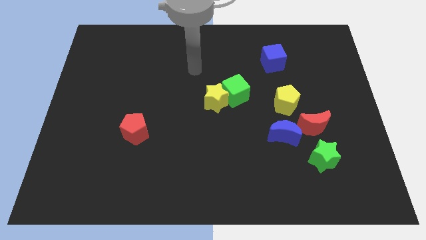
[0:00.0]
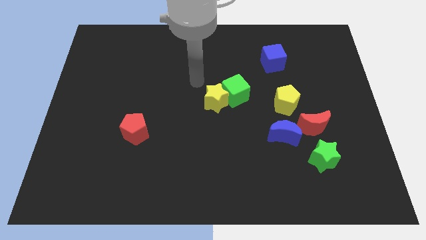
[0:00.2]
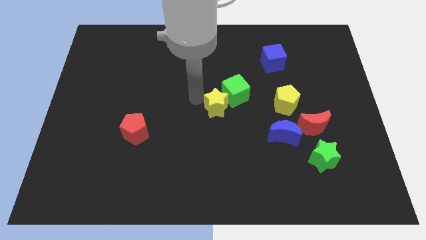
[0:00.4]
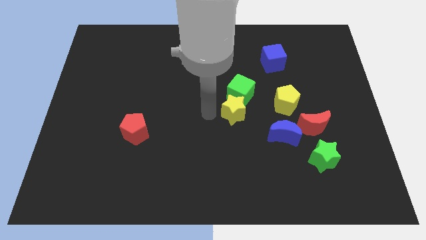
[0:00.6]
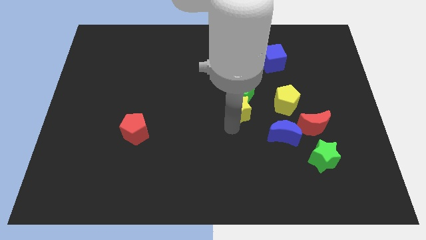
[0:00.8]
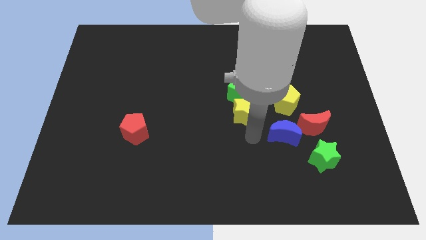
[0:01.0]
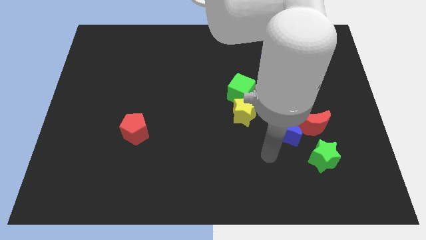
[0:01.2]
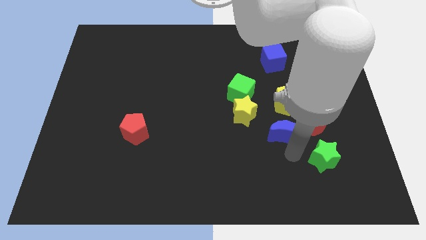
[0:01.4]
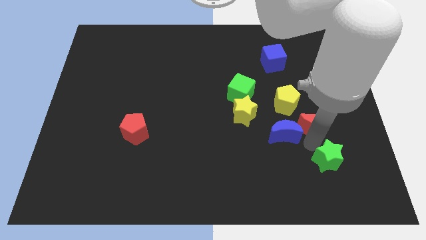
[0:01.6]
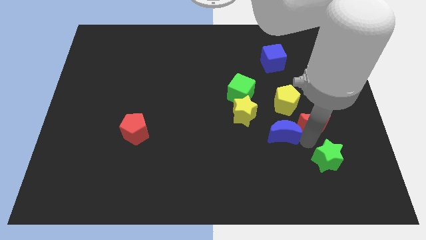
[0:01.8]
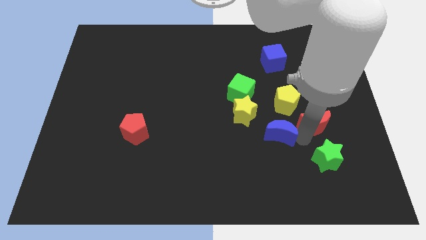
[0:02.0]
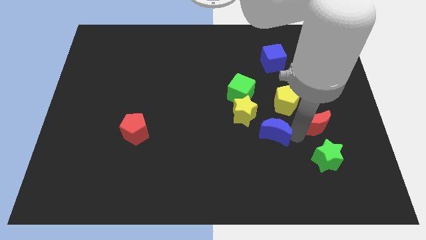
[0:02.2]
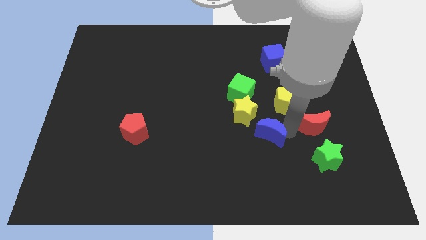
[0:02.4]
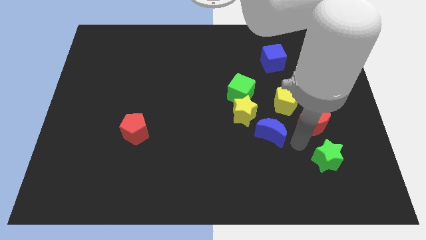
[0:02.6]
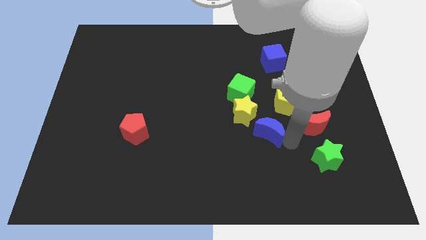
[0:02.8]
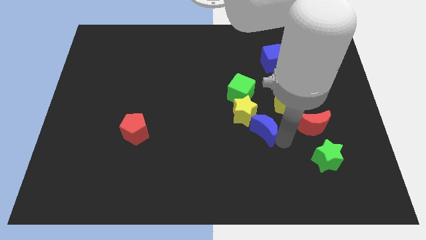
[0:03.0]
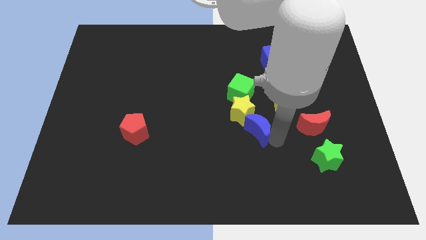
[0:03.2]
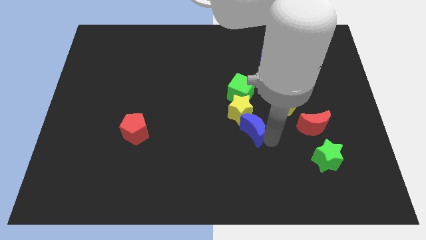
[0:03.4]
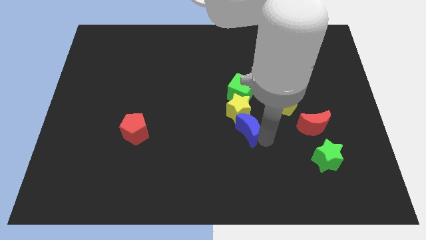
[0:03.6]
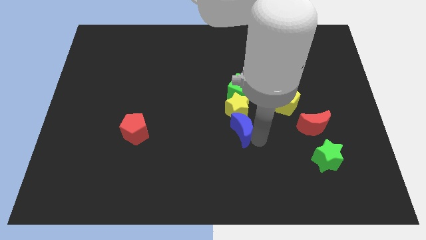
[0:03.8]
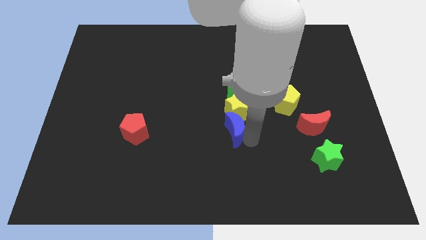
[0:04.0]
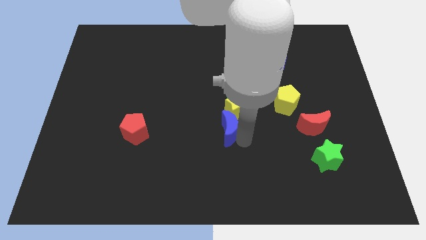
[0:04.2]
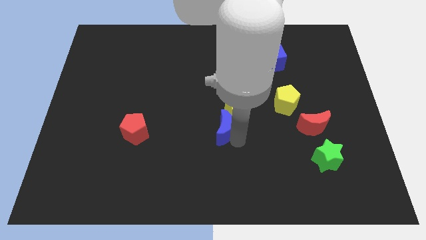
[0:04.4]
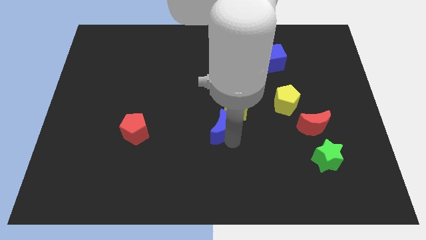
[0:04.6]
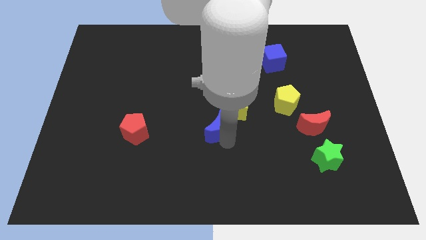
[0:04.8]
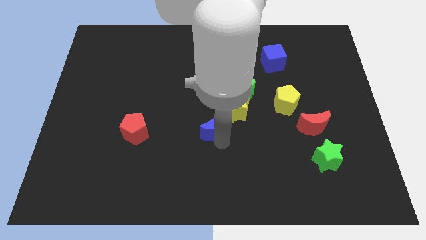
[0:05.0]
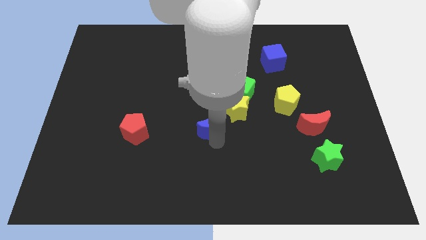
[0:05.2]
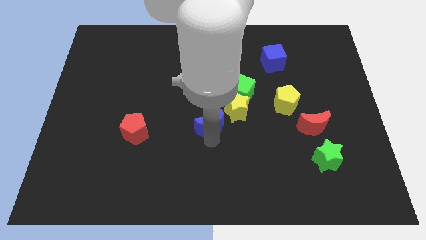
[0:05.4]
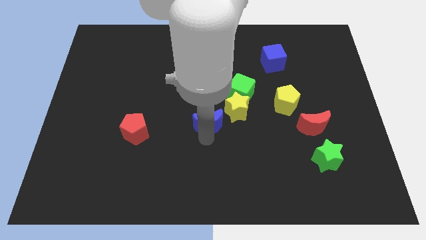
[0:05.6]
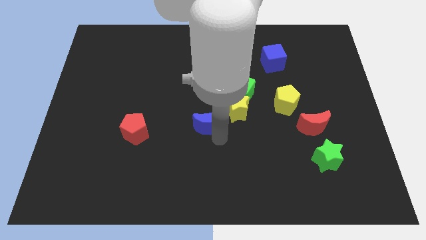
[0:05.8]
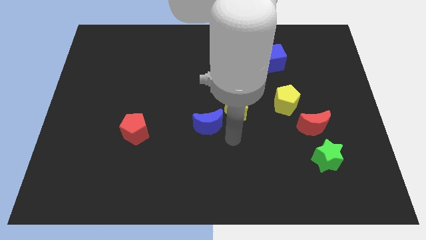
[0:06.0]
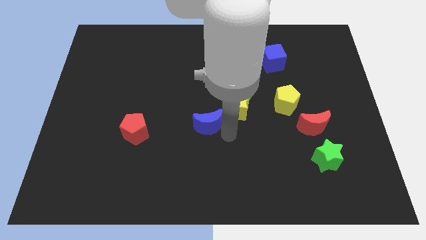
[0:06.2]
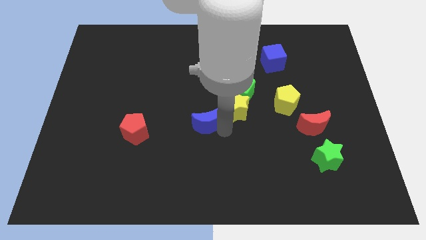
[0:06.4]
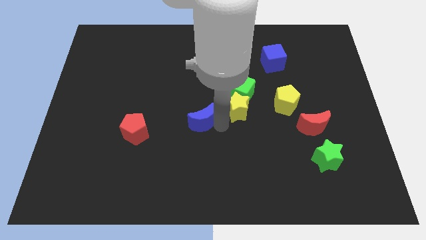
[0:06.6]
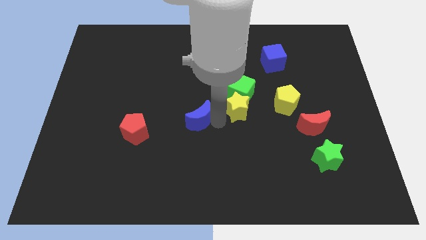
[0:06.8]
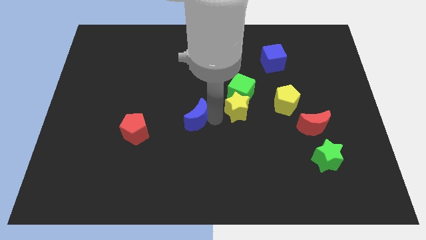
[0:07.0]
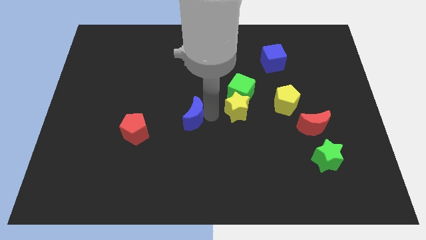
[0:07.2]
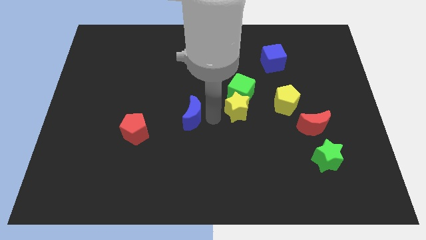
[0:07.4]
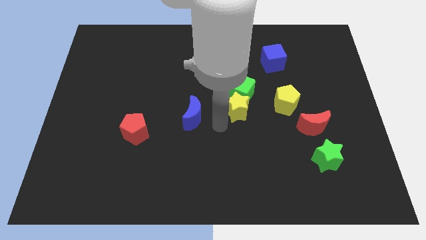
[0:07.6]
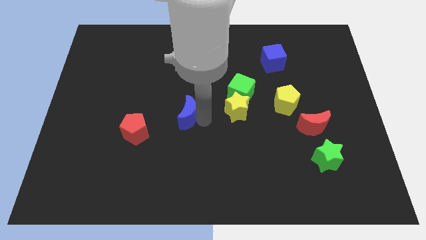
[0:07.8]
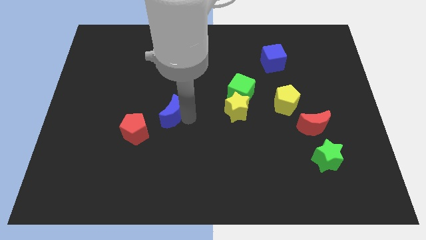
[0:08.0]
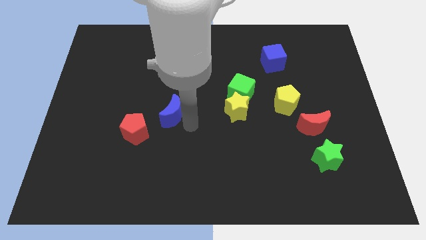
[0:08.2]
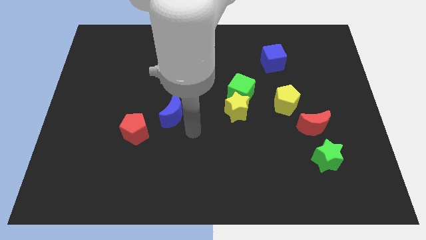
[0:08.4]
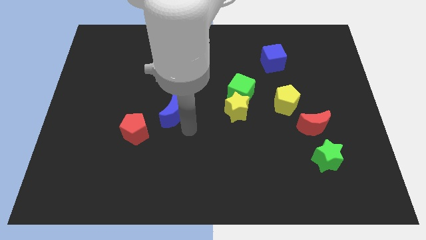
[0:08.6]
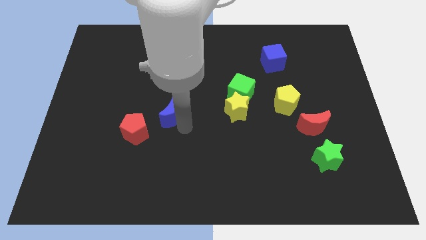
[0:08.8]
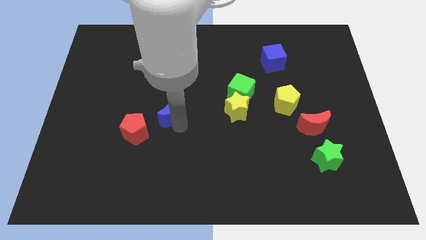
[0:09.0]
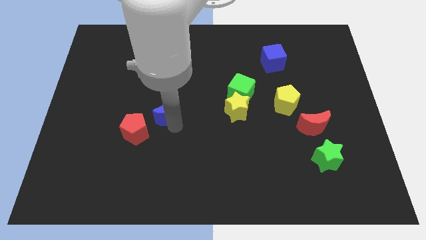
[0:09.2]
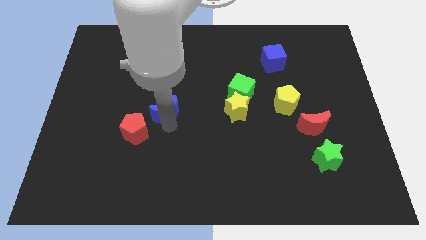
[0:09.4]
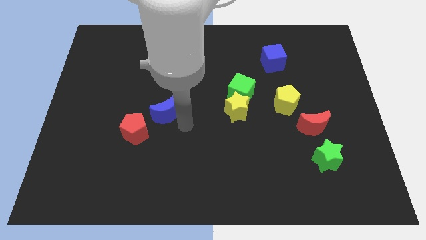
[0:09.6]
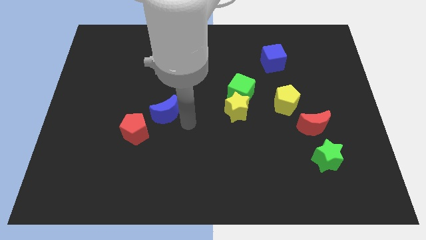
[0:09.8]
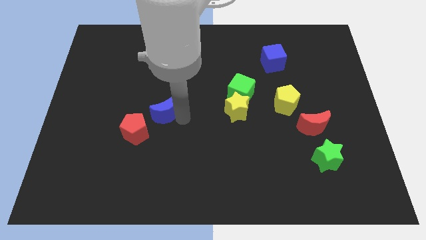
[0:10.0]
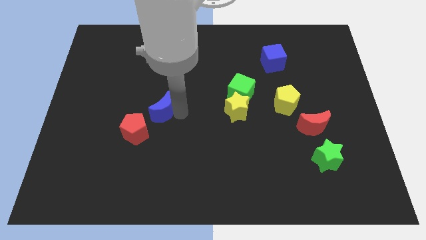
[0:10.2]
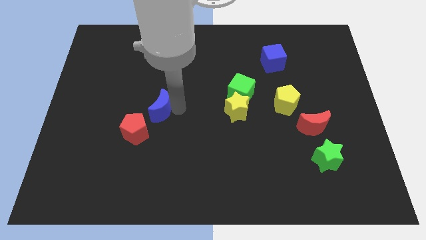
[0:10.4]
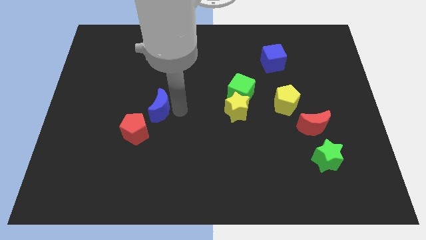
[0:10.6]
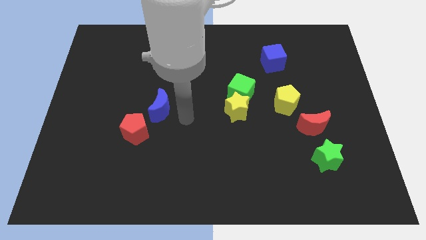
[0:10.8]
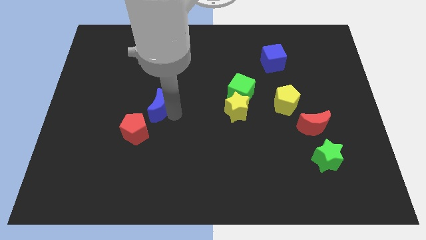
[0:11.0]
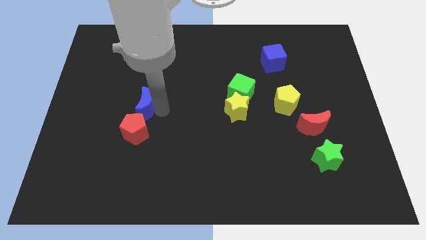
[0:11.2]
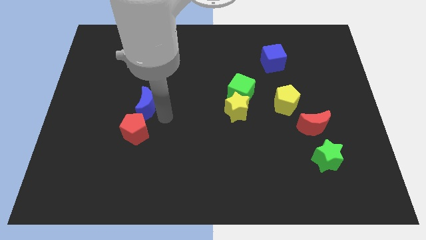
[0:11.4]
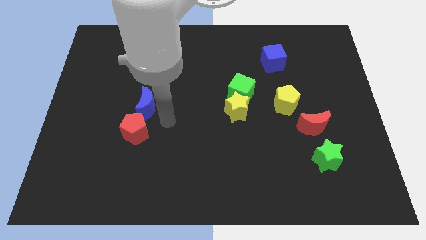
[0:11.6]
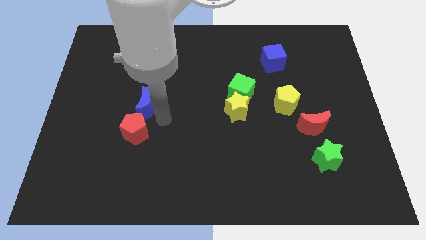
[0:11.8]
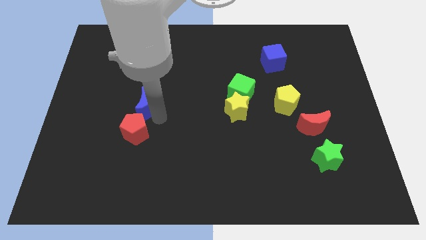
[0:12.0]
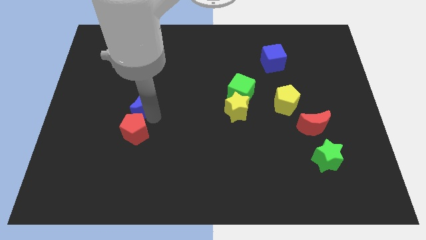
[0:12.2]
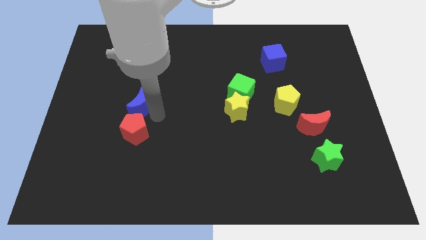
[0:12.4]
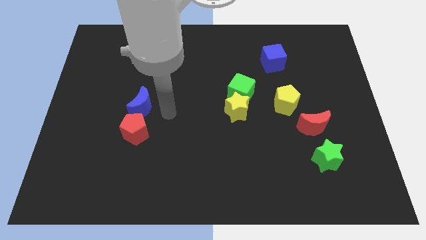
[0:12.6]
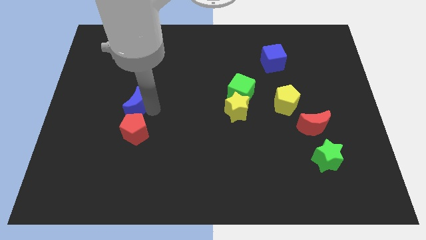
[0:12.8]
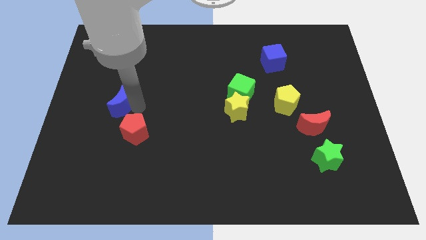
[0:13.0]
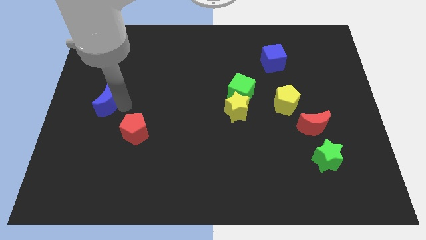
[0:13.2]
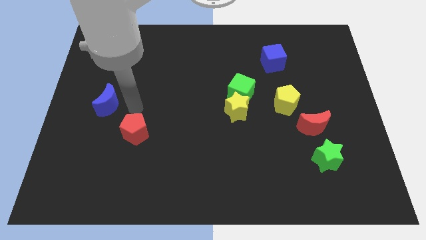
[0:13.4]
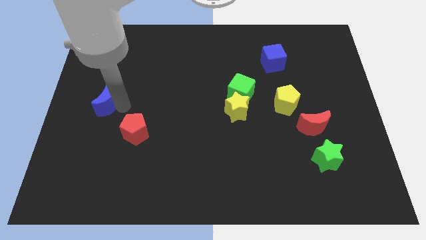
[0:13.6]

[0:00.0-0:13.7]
slide the blue moon to the left side
